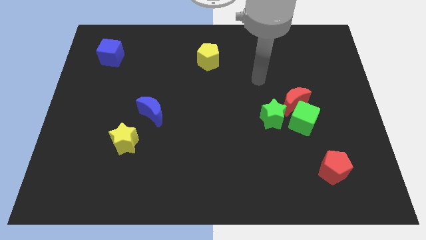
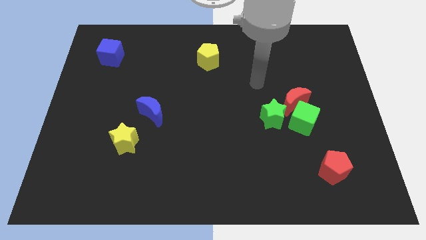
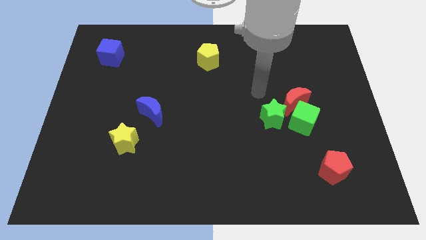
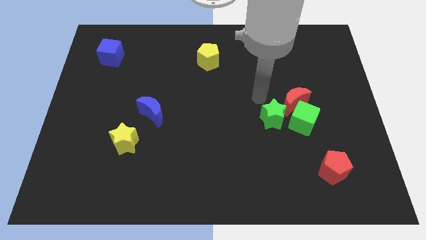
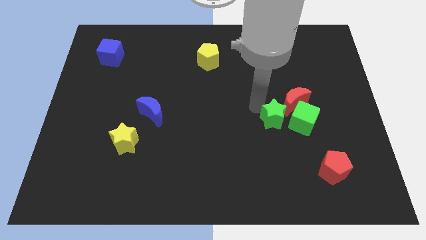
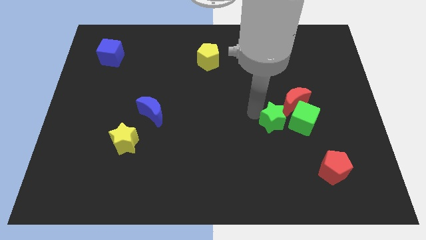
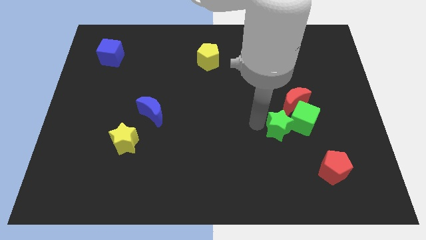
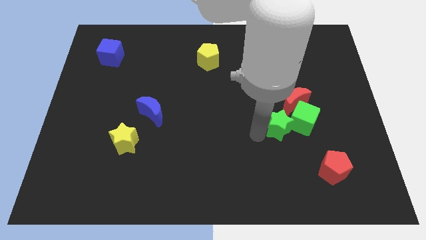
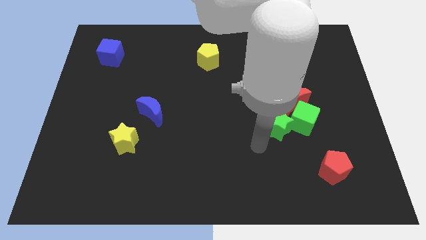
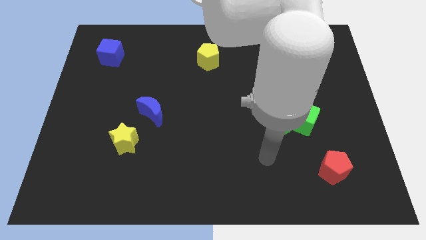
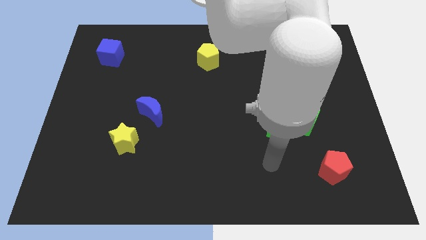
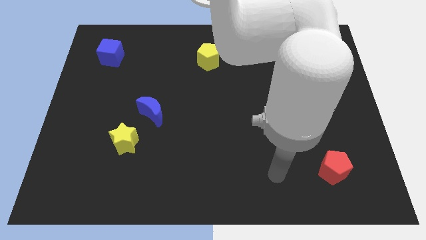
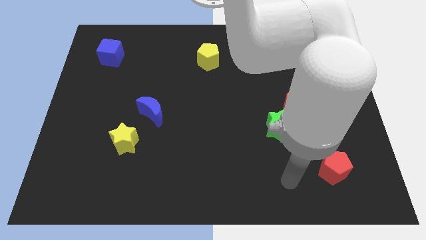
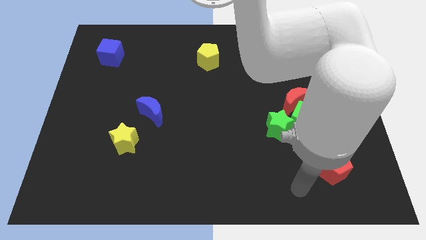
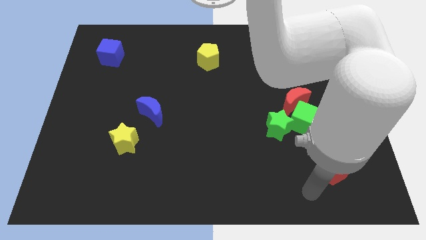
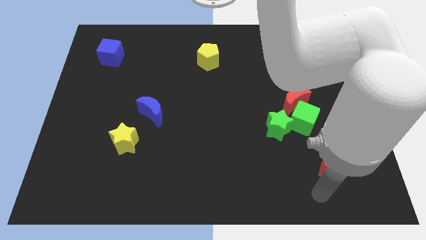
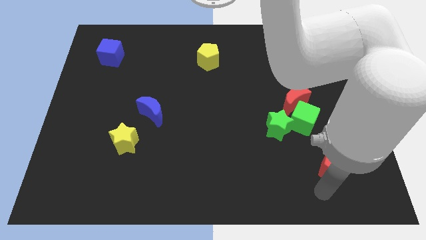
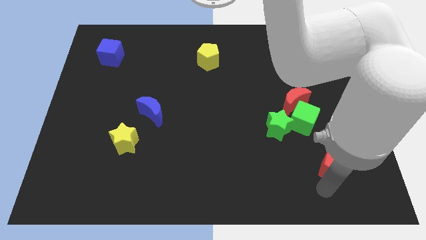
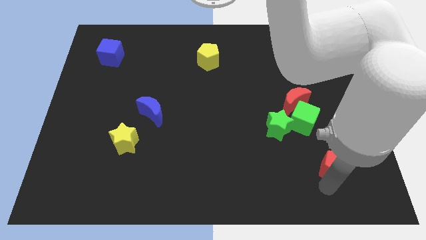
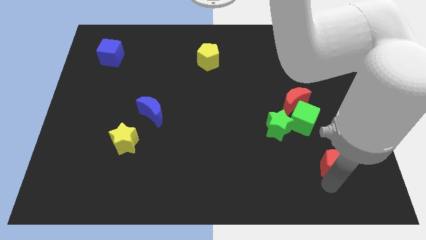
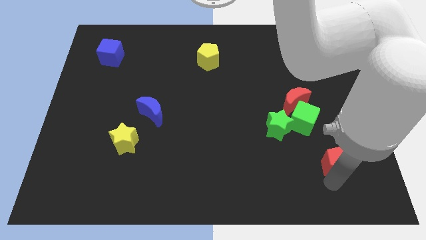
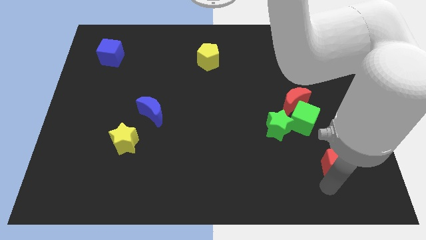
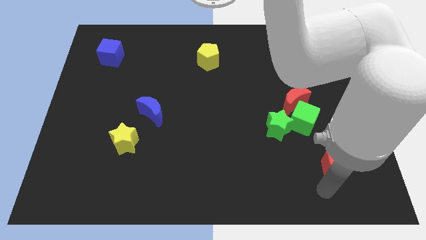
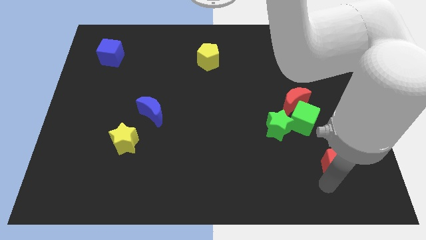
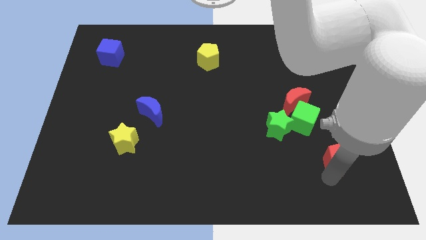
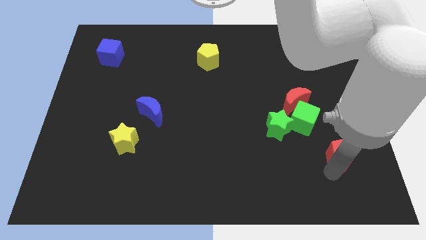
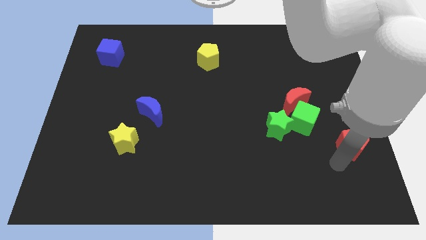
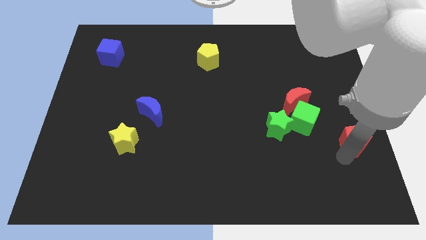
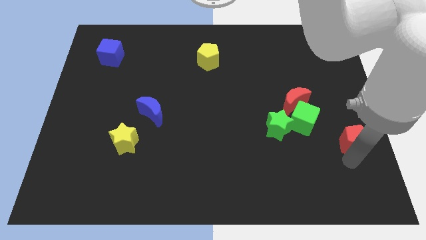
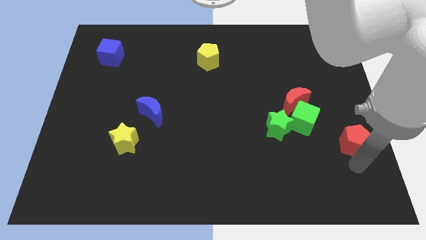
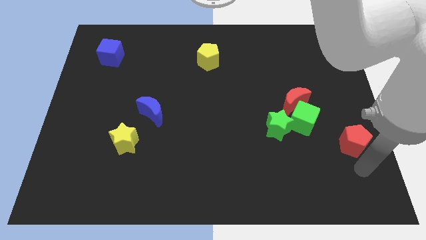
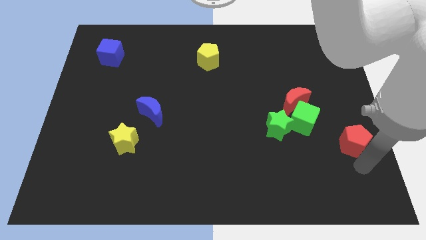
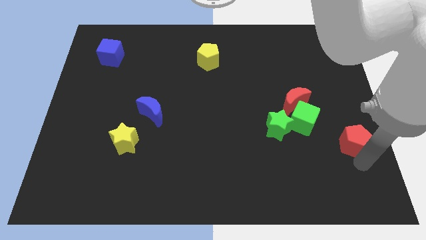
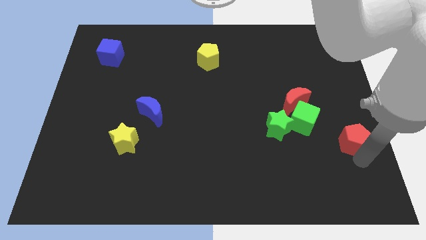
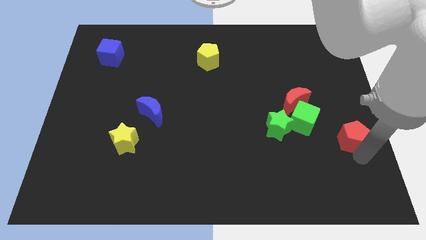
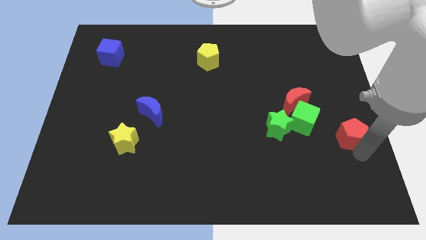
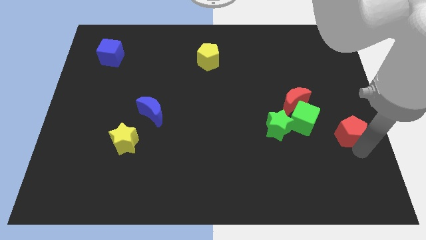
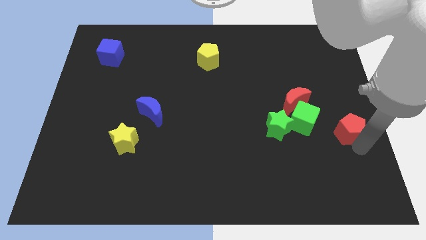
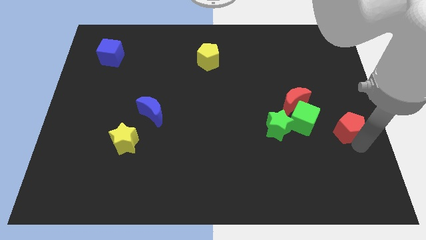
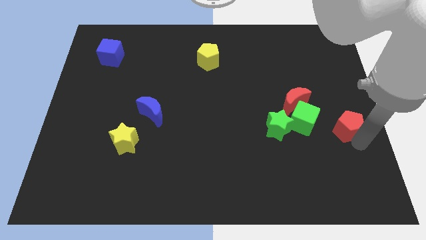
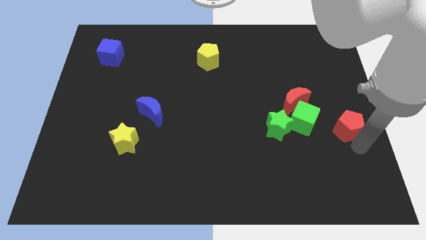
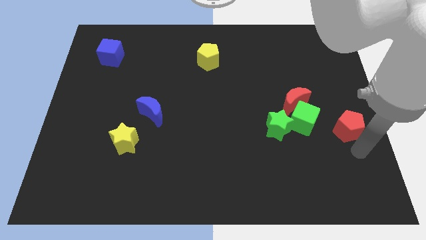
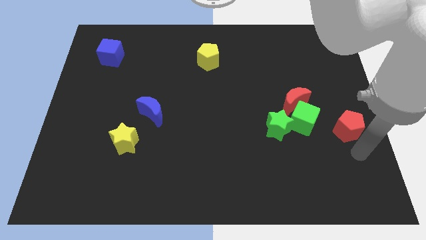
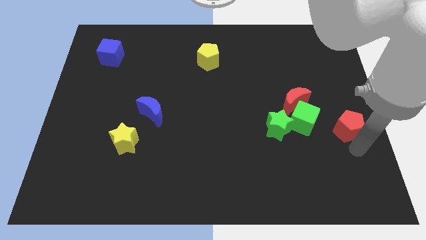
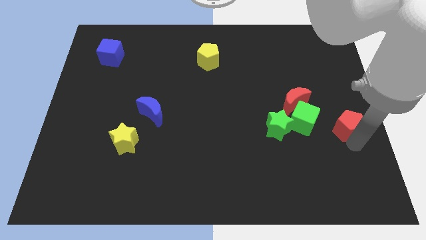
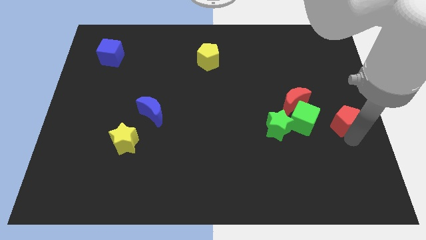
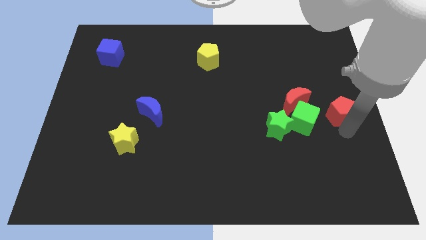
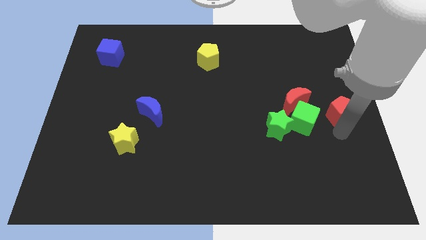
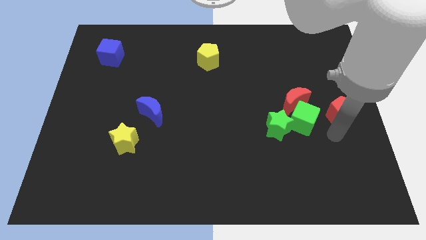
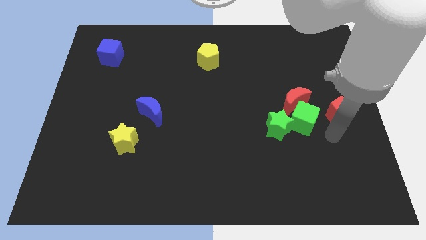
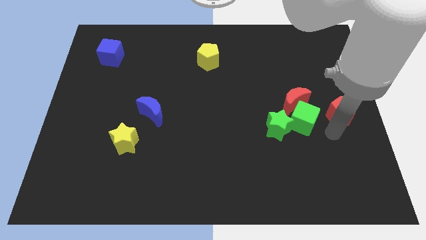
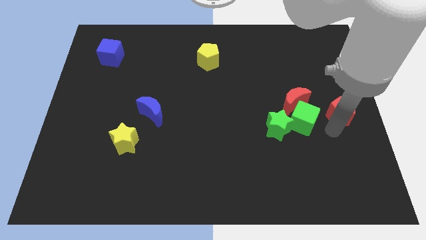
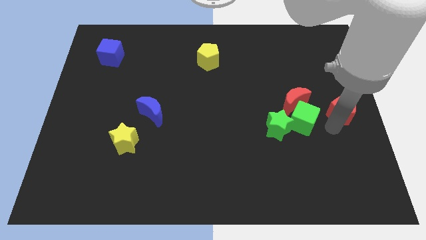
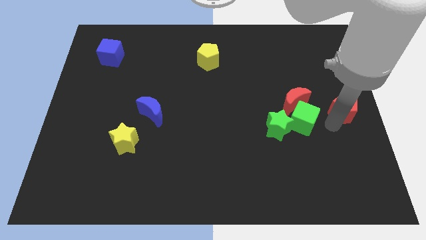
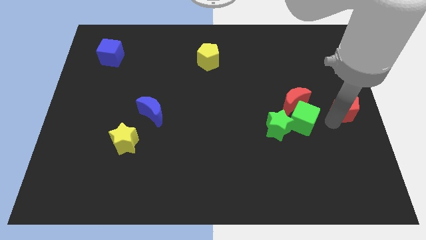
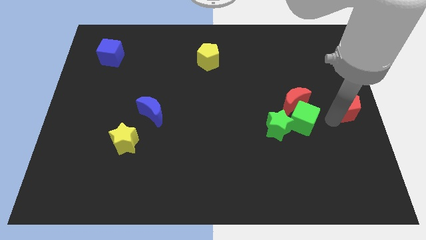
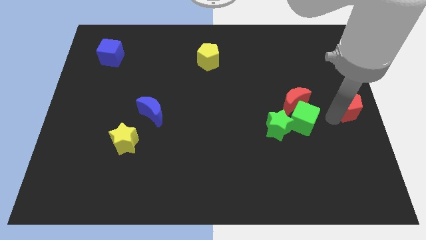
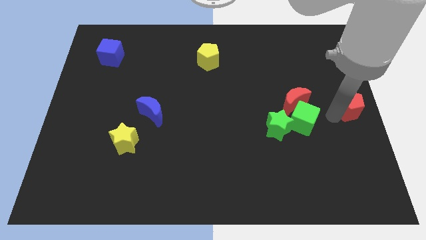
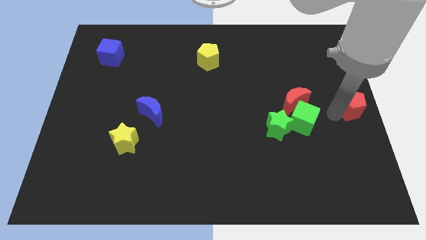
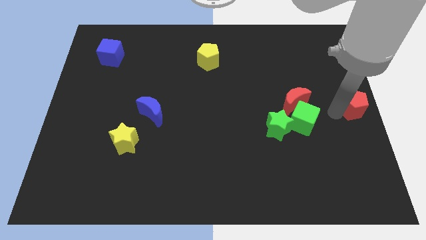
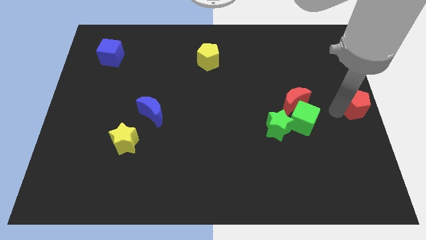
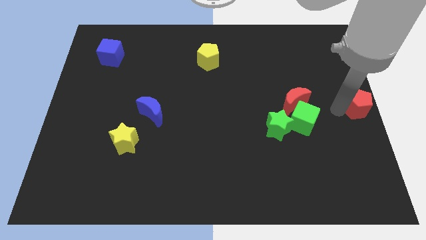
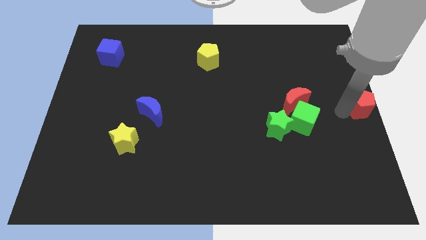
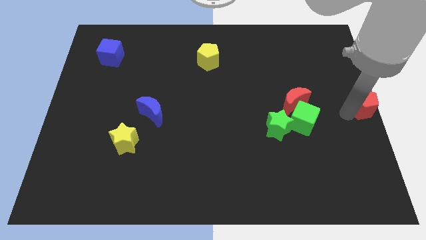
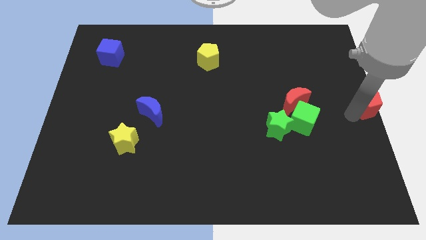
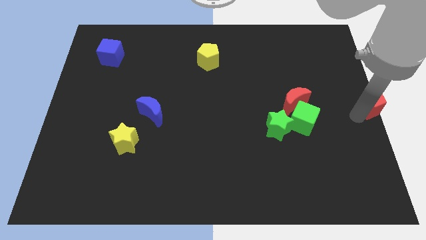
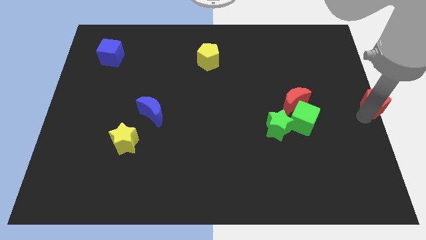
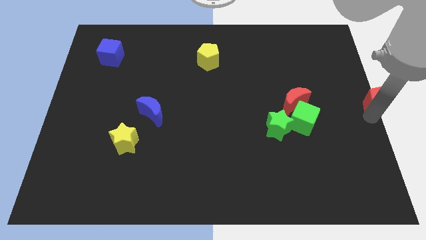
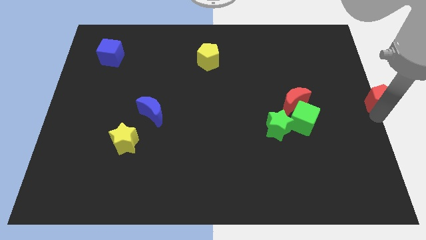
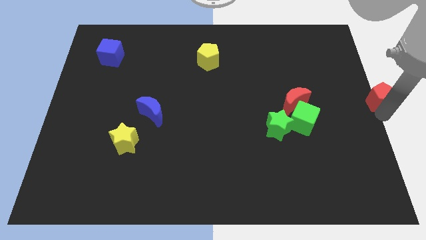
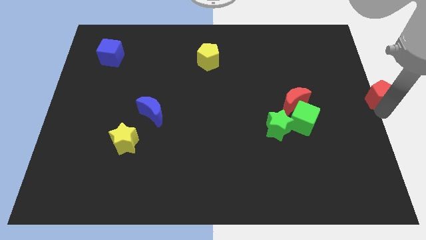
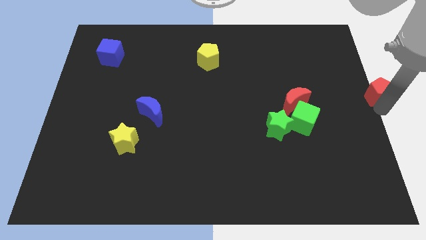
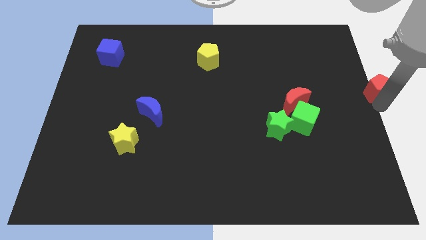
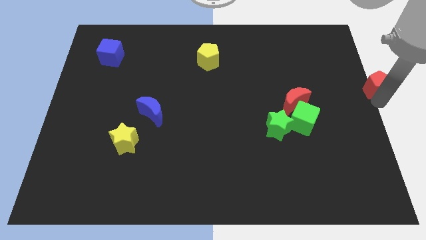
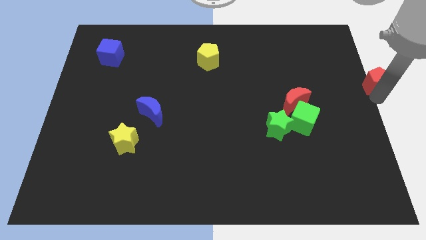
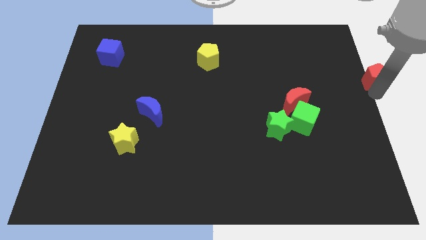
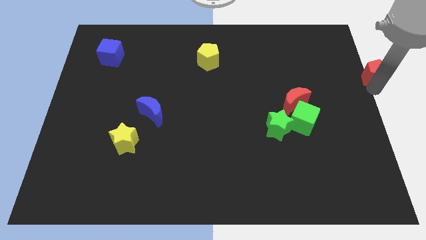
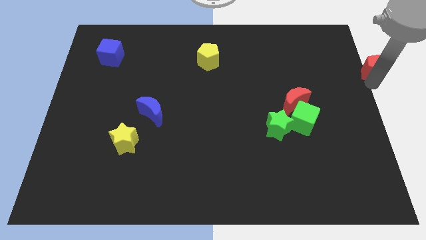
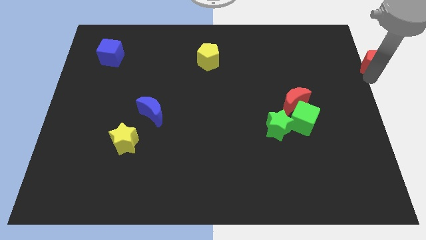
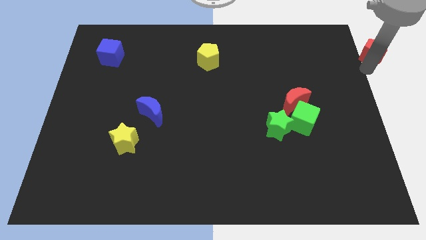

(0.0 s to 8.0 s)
move the red pentagon to the top right corner
